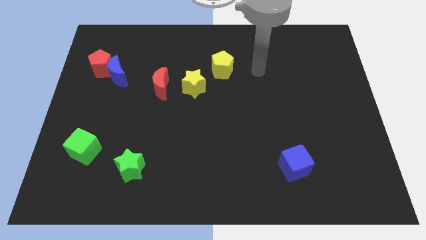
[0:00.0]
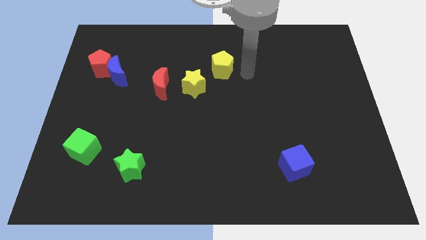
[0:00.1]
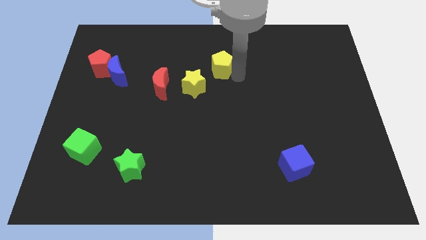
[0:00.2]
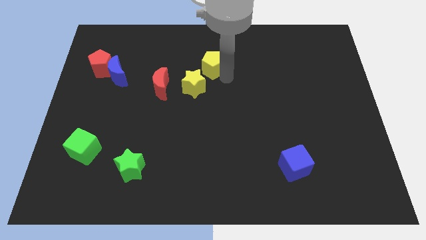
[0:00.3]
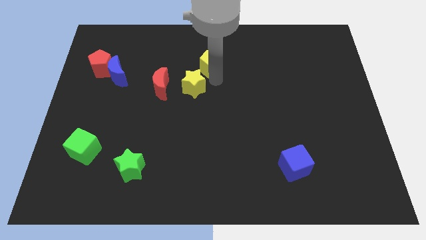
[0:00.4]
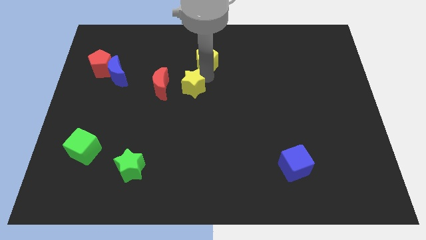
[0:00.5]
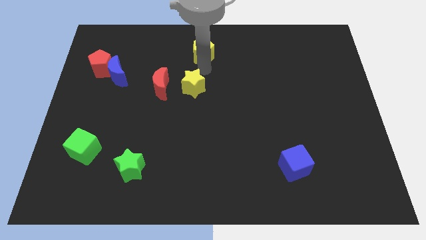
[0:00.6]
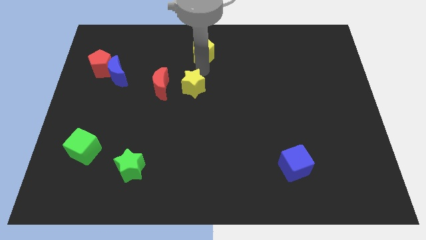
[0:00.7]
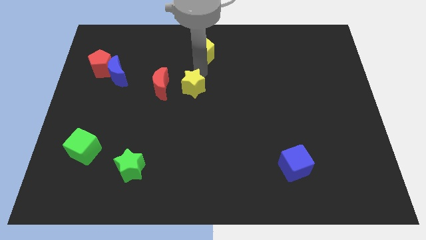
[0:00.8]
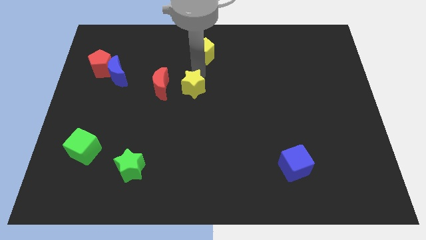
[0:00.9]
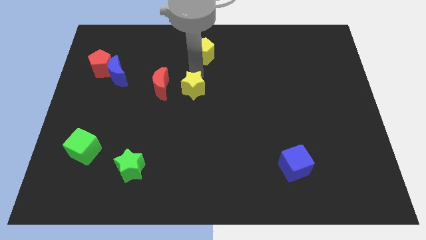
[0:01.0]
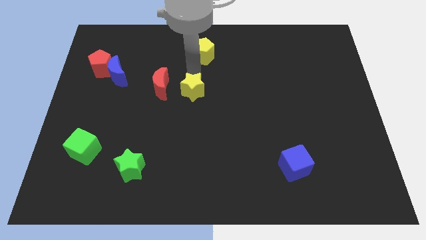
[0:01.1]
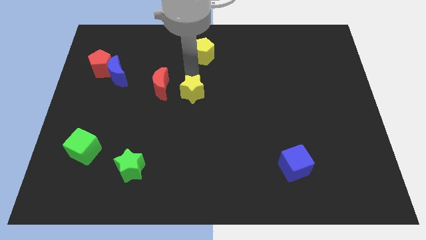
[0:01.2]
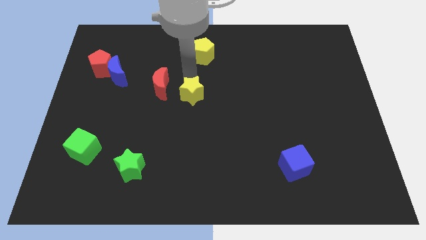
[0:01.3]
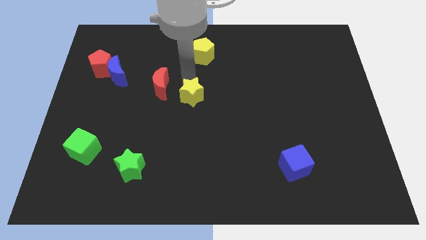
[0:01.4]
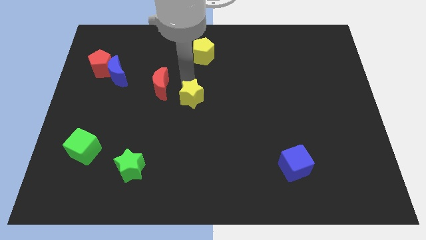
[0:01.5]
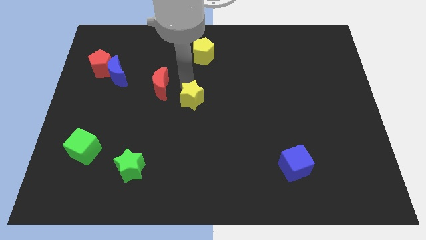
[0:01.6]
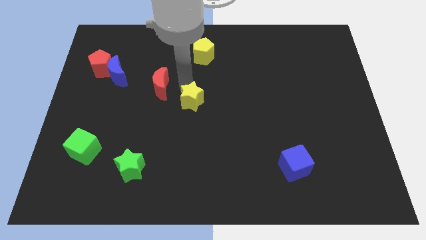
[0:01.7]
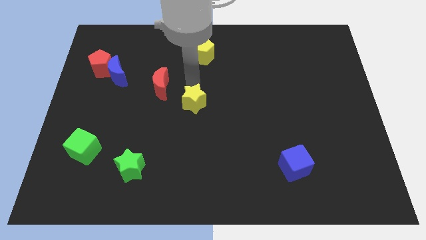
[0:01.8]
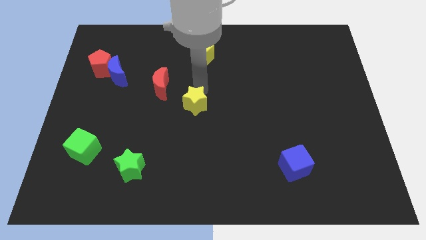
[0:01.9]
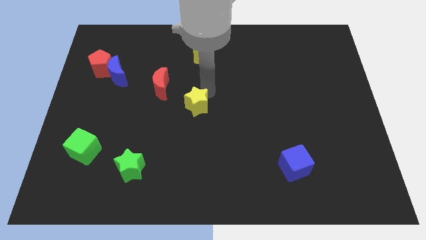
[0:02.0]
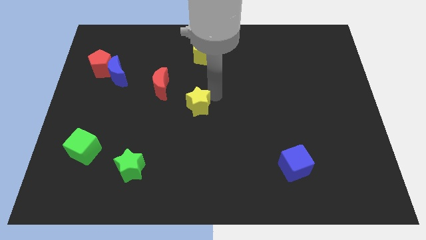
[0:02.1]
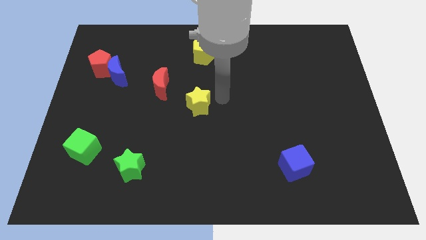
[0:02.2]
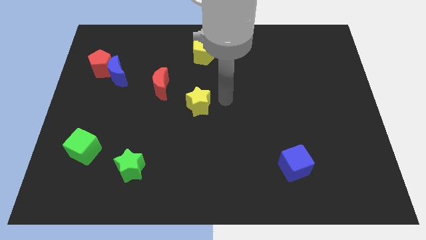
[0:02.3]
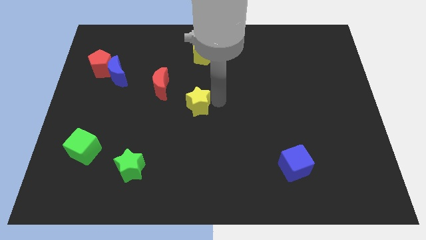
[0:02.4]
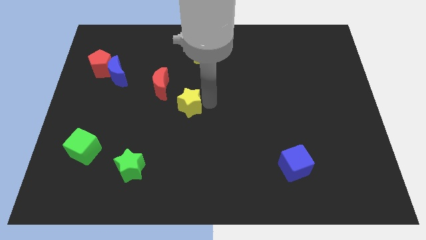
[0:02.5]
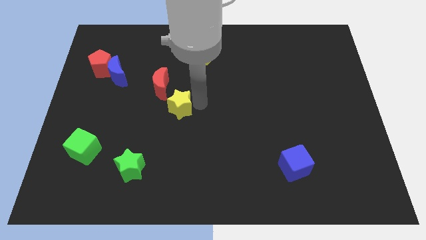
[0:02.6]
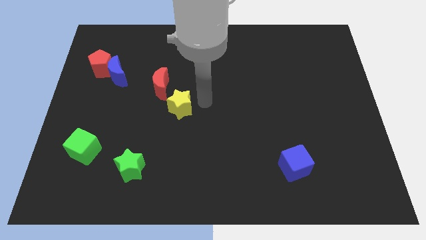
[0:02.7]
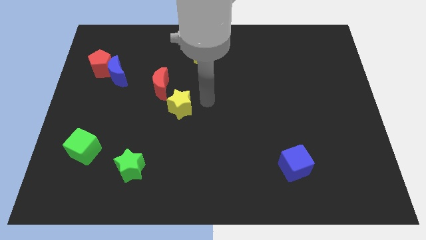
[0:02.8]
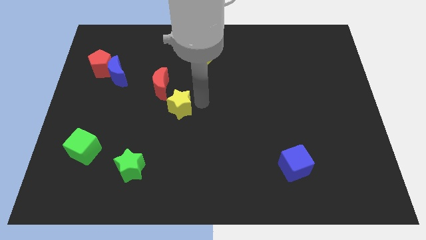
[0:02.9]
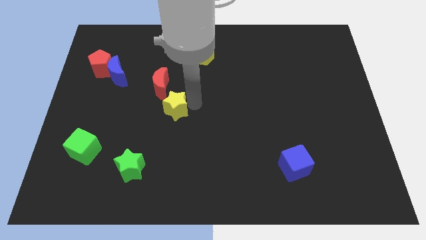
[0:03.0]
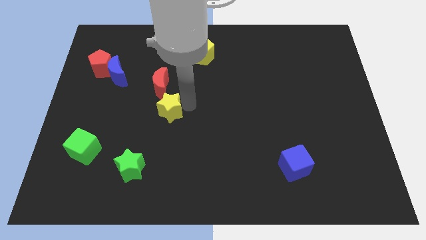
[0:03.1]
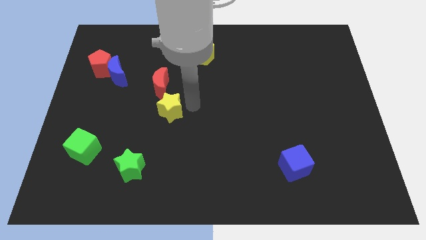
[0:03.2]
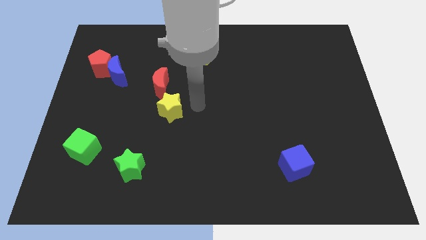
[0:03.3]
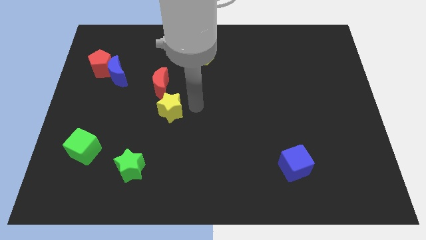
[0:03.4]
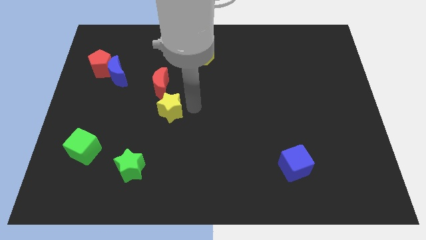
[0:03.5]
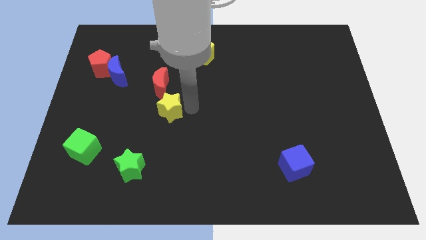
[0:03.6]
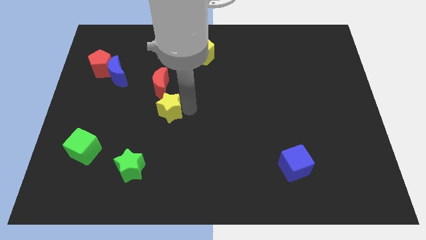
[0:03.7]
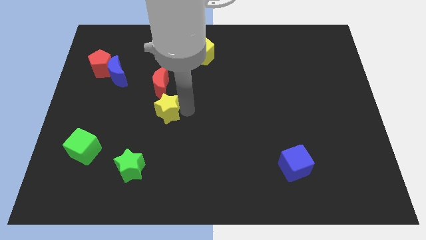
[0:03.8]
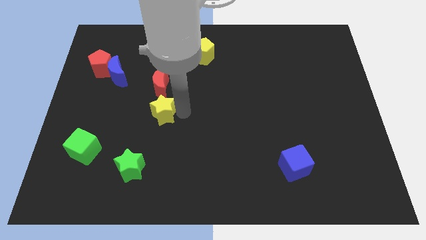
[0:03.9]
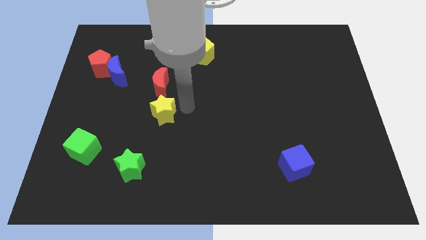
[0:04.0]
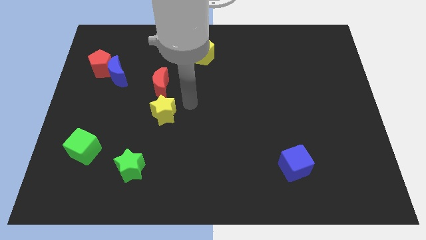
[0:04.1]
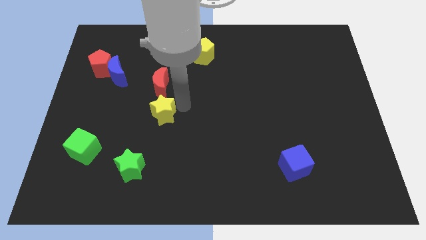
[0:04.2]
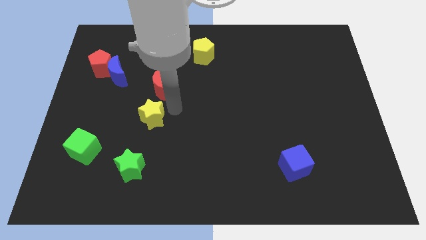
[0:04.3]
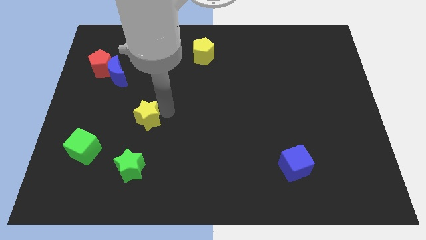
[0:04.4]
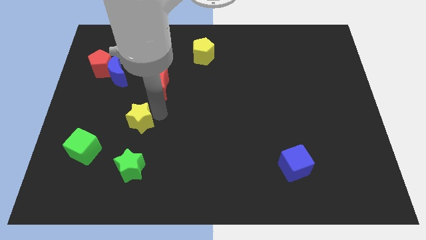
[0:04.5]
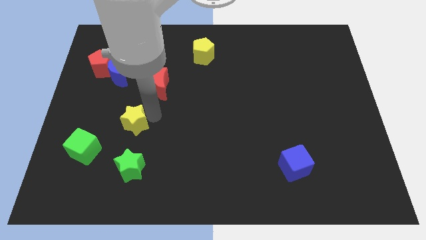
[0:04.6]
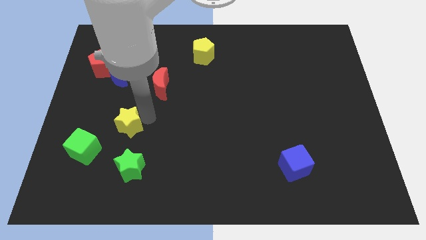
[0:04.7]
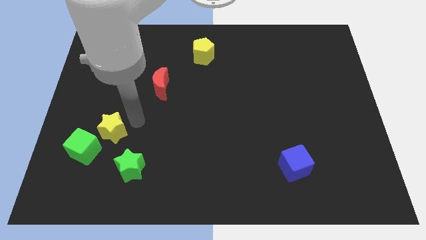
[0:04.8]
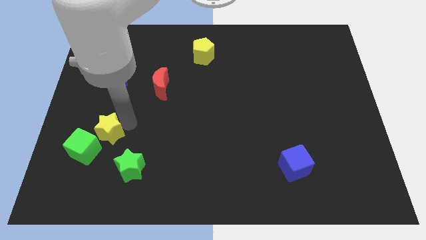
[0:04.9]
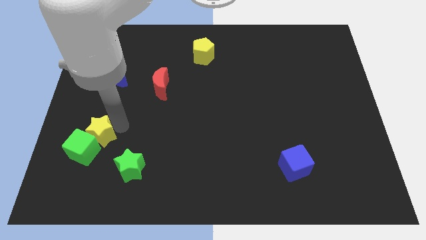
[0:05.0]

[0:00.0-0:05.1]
put the yellow star to the green cube

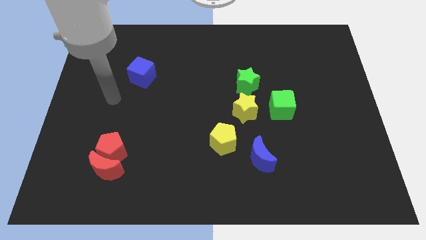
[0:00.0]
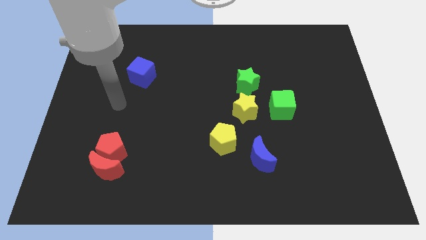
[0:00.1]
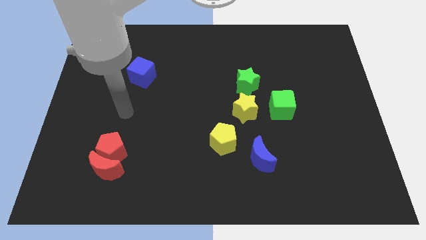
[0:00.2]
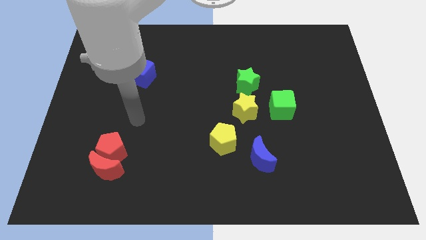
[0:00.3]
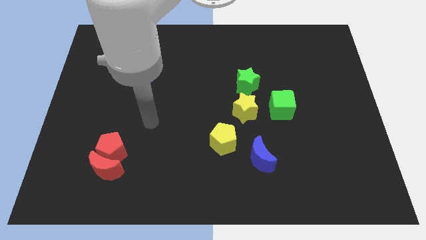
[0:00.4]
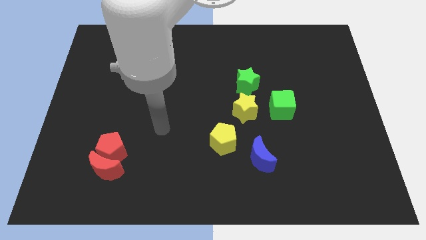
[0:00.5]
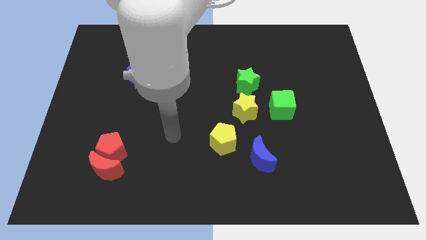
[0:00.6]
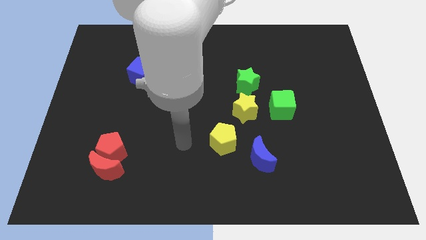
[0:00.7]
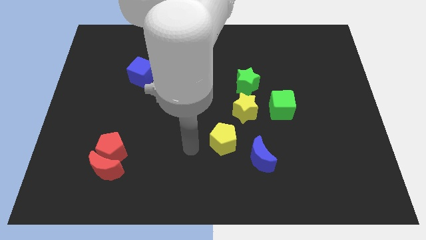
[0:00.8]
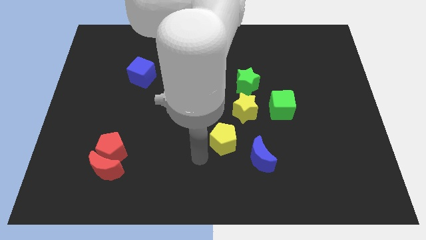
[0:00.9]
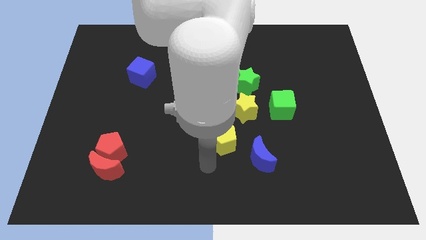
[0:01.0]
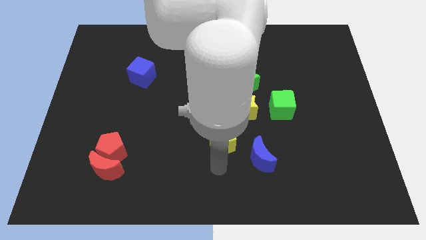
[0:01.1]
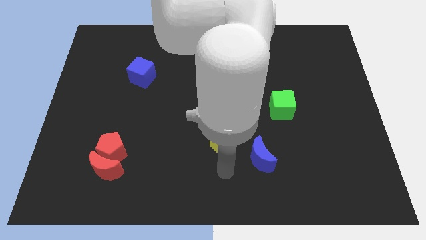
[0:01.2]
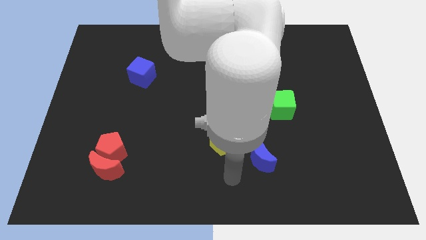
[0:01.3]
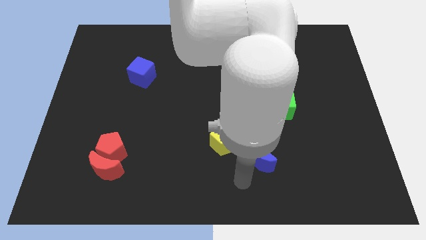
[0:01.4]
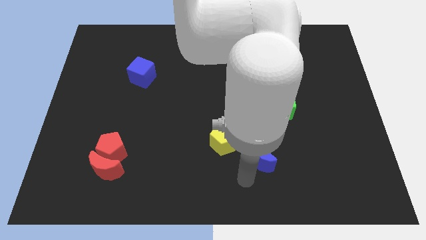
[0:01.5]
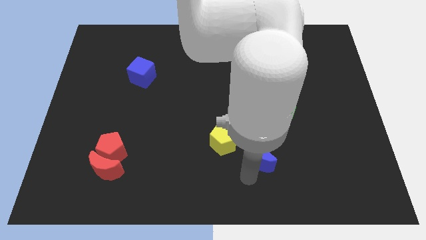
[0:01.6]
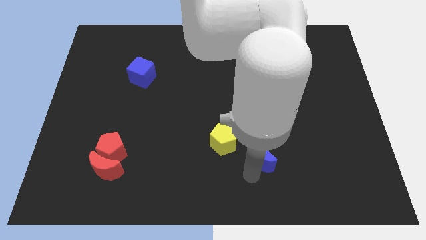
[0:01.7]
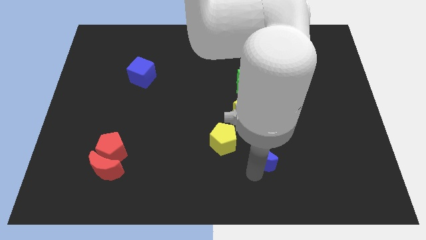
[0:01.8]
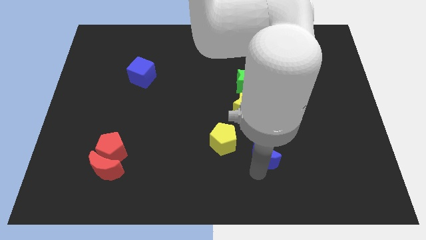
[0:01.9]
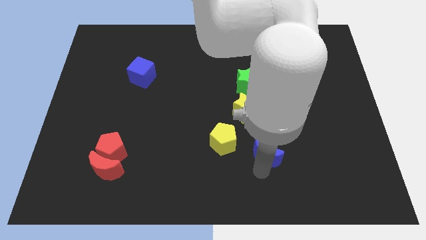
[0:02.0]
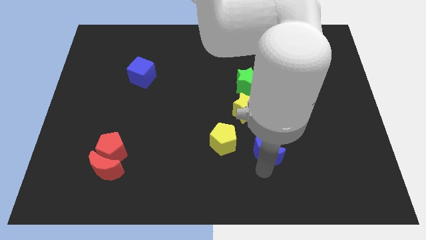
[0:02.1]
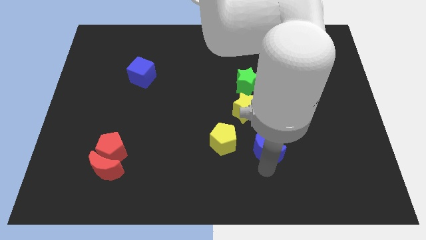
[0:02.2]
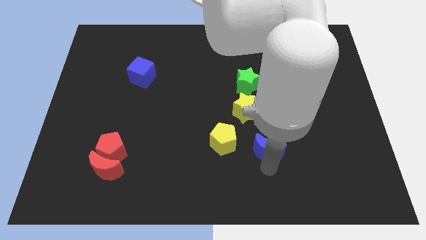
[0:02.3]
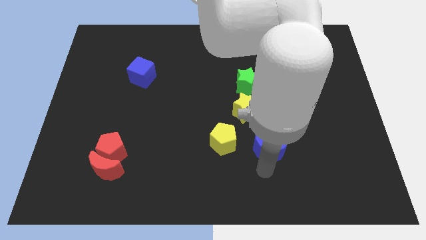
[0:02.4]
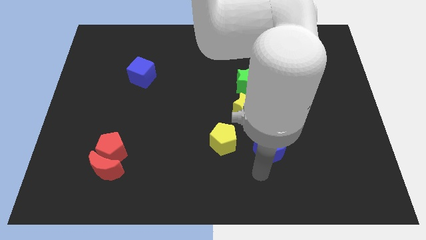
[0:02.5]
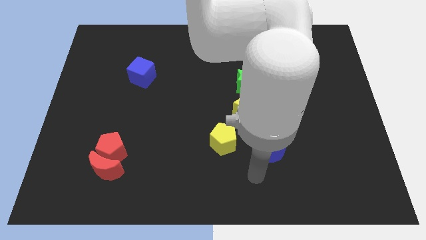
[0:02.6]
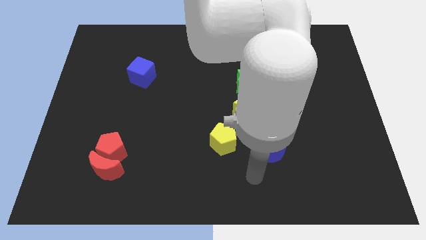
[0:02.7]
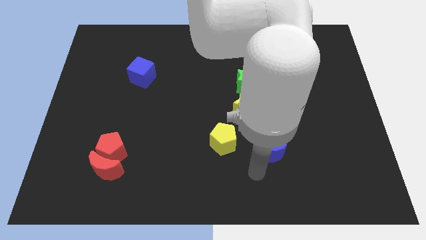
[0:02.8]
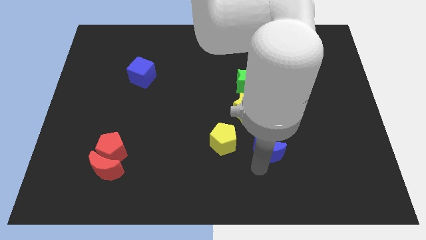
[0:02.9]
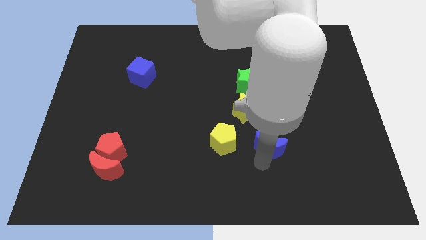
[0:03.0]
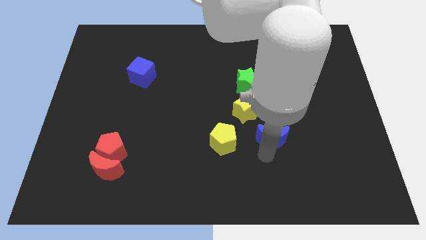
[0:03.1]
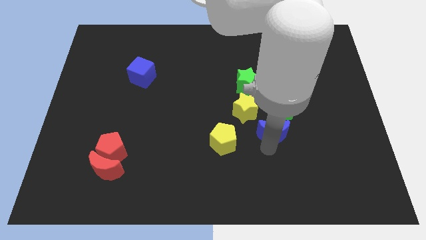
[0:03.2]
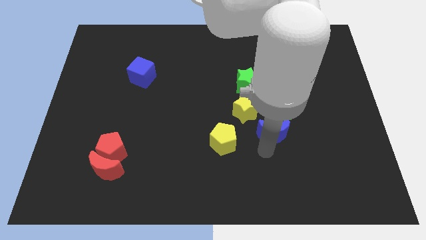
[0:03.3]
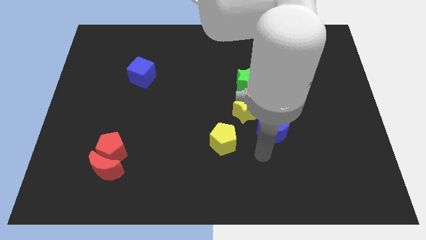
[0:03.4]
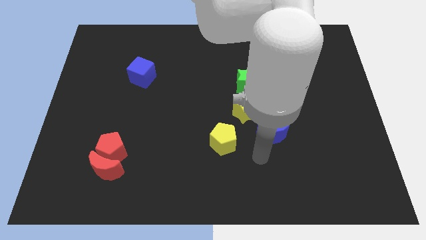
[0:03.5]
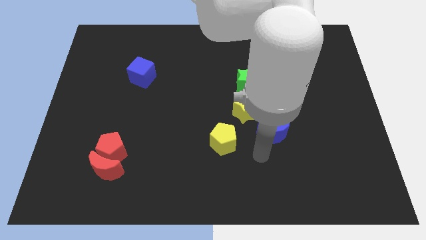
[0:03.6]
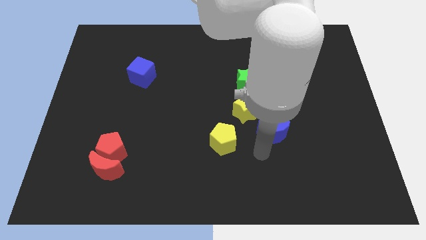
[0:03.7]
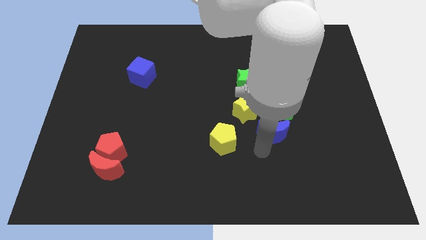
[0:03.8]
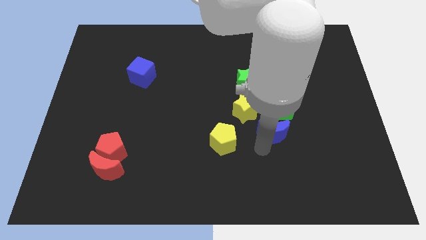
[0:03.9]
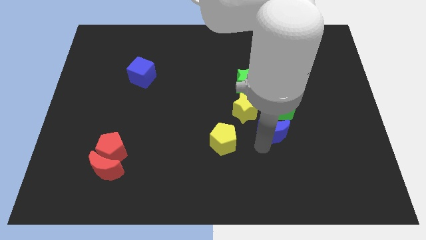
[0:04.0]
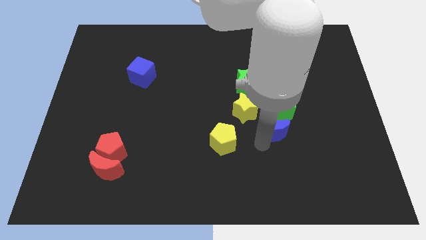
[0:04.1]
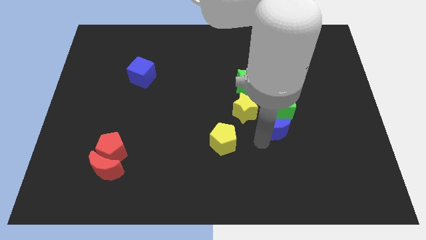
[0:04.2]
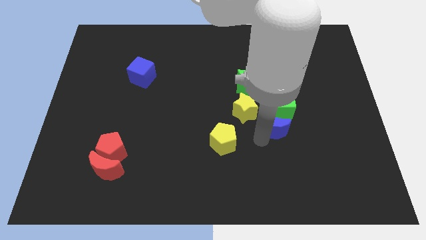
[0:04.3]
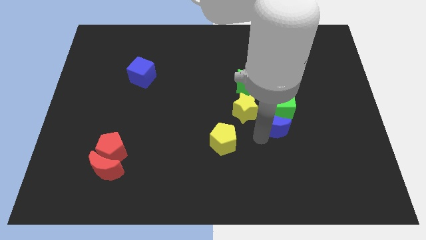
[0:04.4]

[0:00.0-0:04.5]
move the blue moon to the green cube
